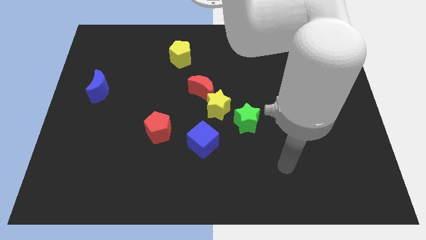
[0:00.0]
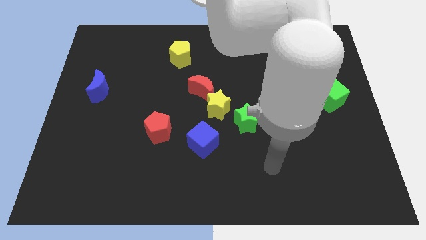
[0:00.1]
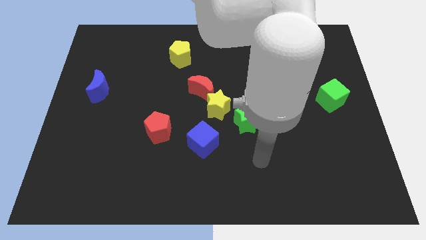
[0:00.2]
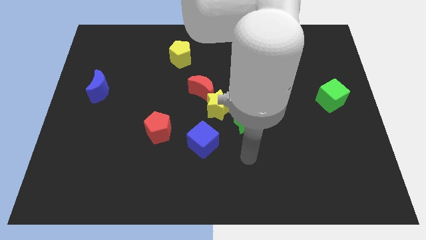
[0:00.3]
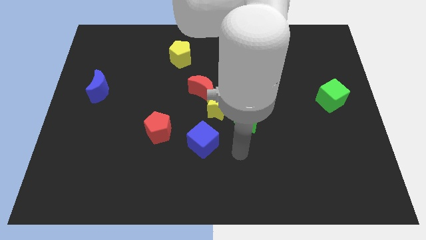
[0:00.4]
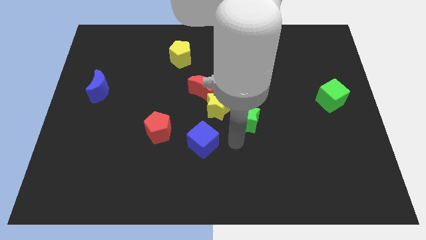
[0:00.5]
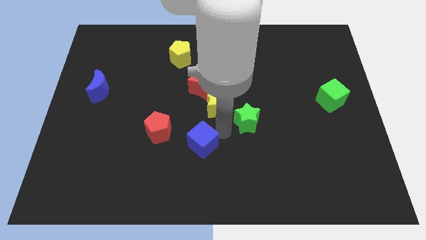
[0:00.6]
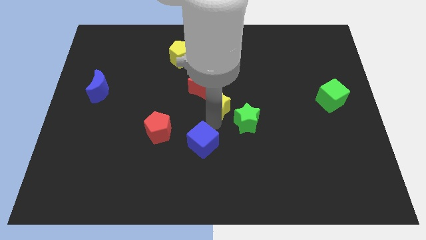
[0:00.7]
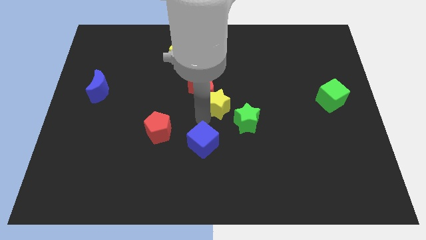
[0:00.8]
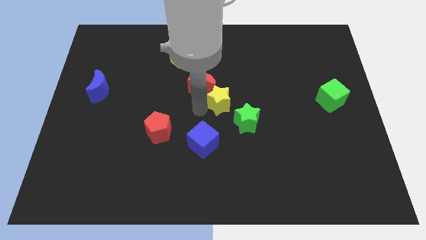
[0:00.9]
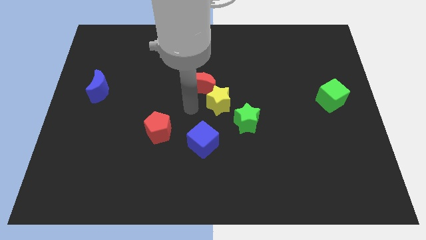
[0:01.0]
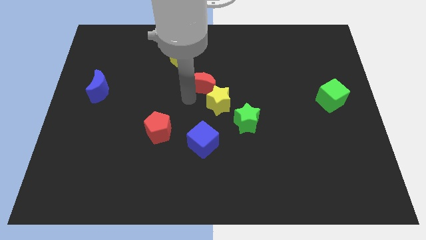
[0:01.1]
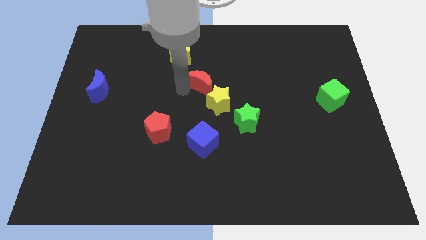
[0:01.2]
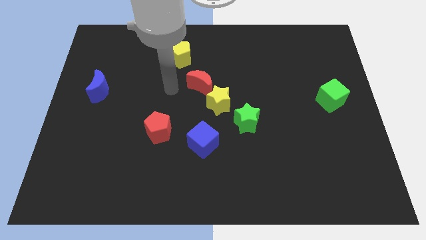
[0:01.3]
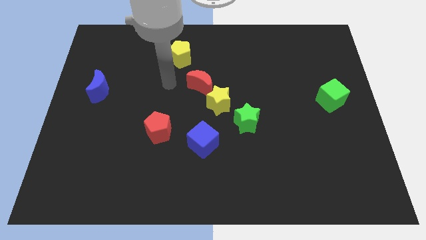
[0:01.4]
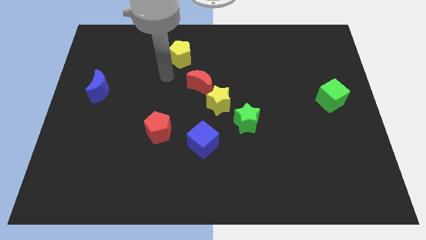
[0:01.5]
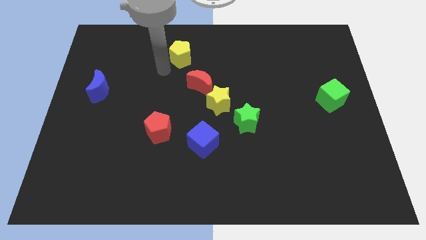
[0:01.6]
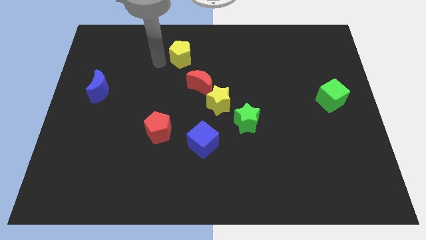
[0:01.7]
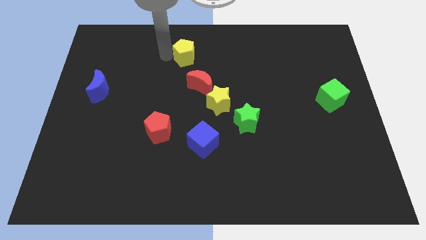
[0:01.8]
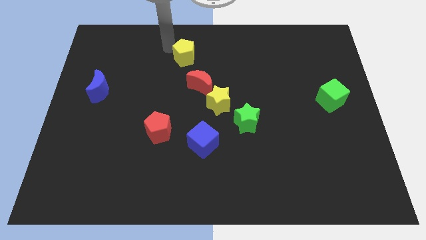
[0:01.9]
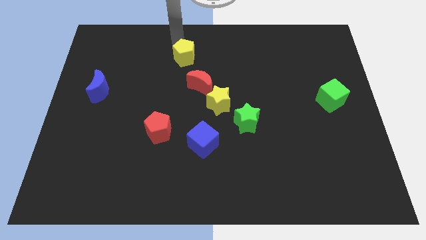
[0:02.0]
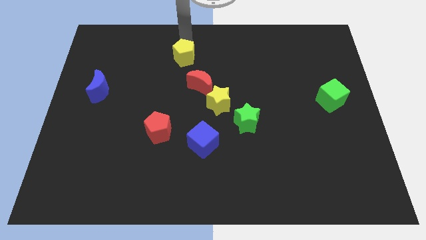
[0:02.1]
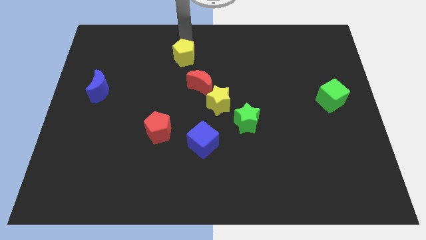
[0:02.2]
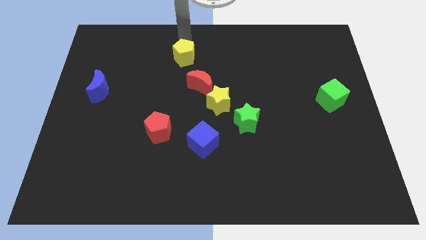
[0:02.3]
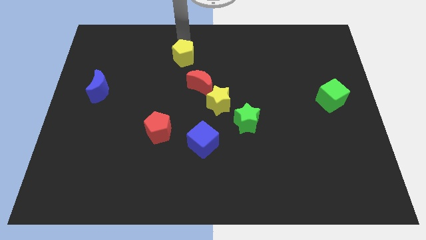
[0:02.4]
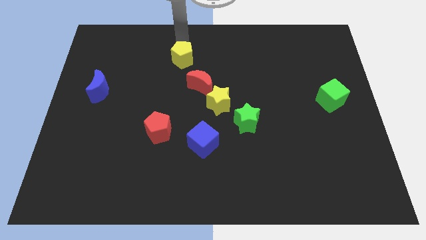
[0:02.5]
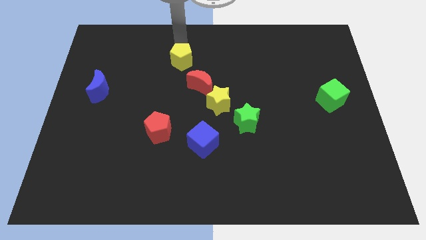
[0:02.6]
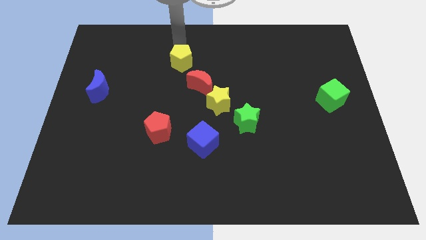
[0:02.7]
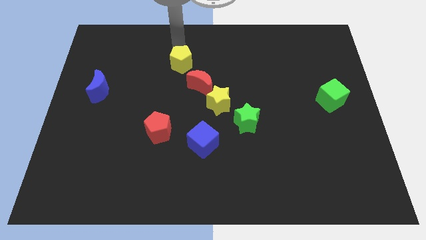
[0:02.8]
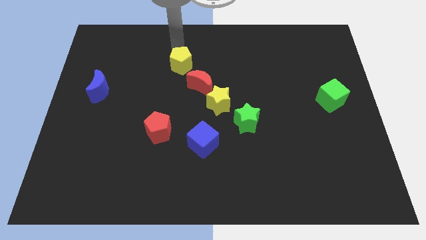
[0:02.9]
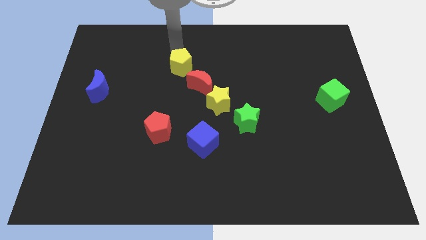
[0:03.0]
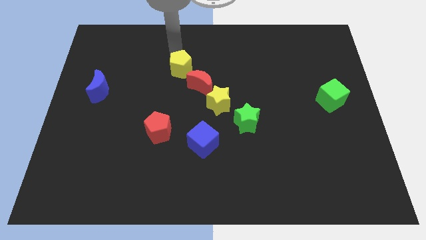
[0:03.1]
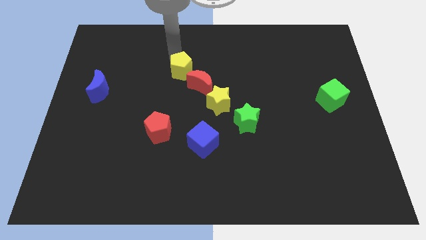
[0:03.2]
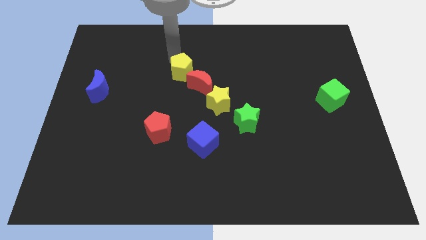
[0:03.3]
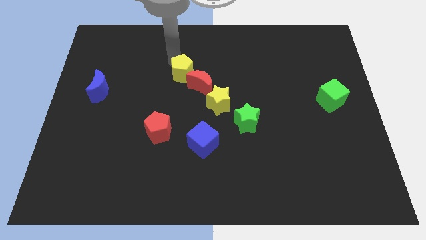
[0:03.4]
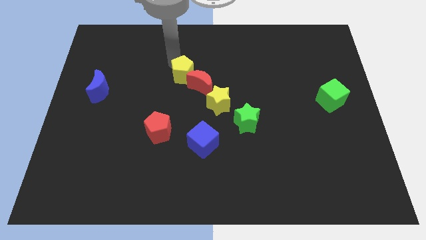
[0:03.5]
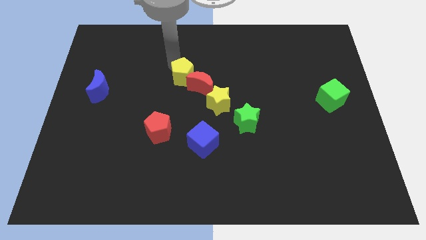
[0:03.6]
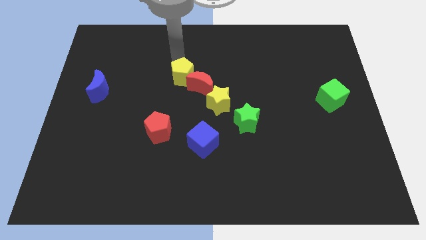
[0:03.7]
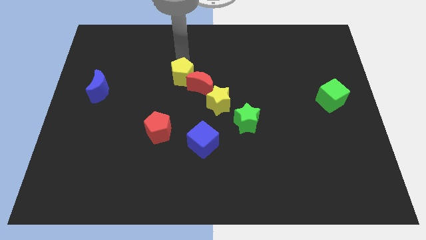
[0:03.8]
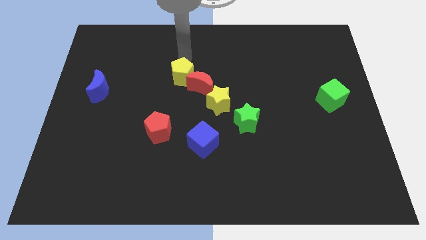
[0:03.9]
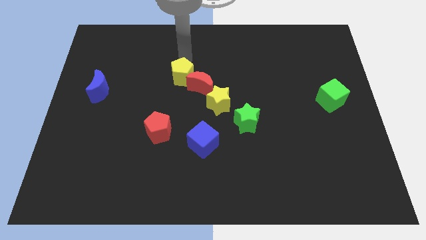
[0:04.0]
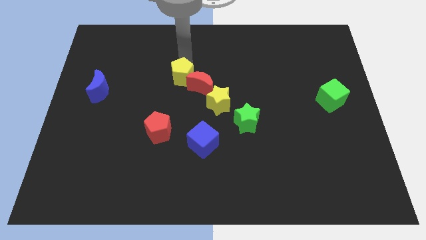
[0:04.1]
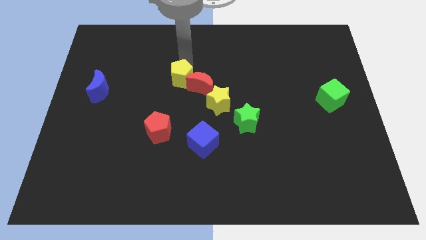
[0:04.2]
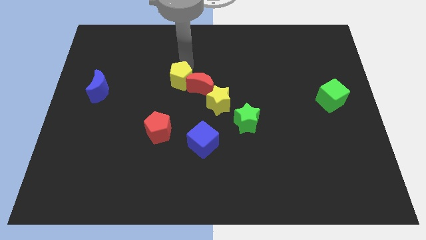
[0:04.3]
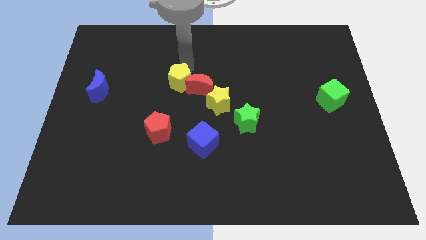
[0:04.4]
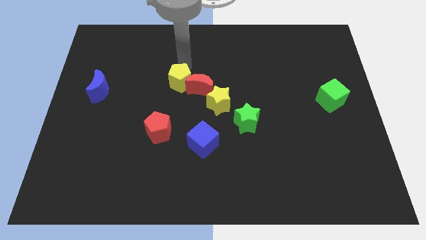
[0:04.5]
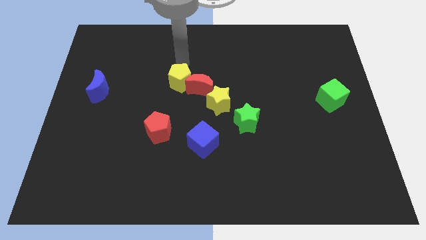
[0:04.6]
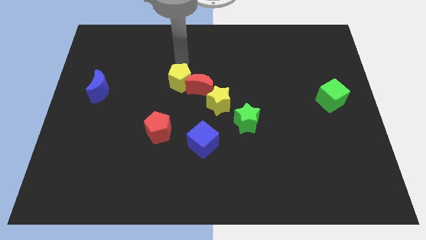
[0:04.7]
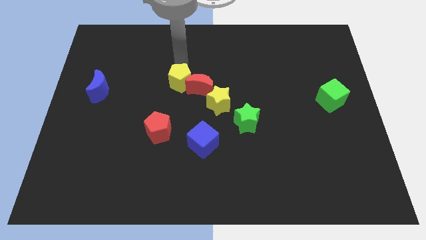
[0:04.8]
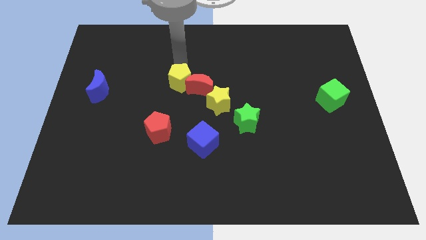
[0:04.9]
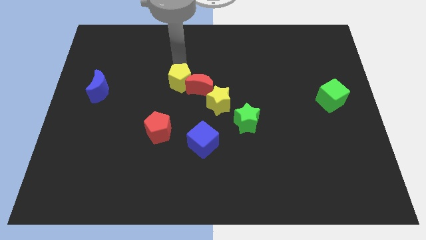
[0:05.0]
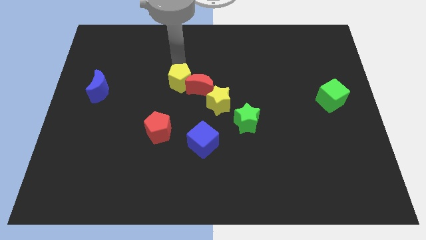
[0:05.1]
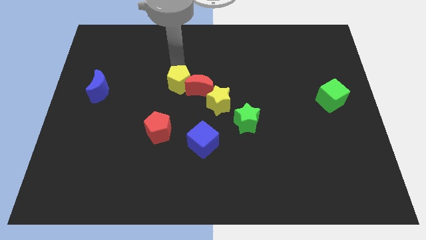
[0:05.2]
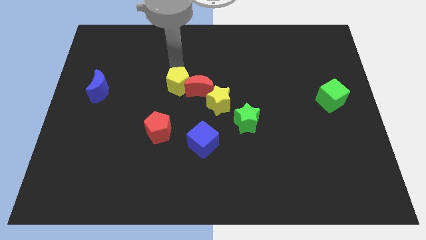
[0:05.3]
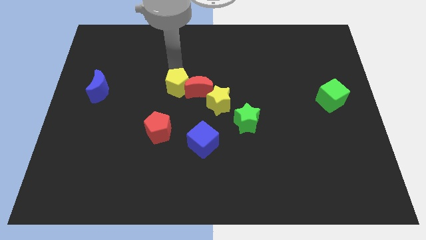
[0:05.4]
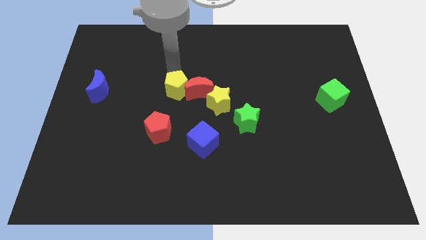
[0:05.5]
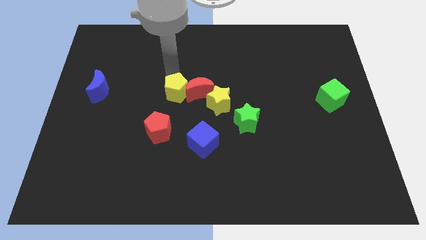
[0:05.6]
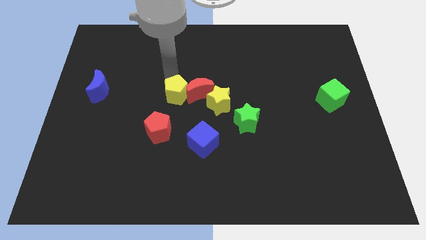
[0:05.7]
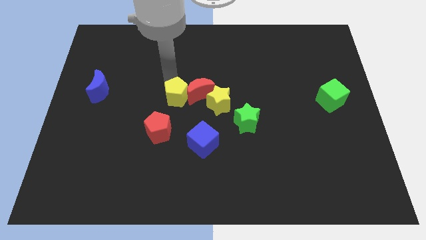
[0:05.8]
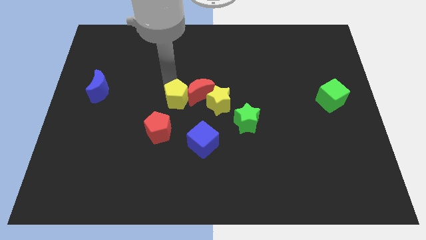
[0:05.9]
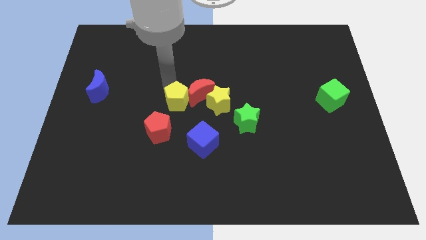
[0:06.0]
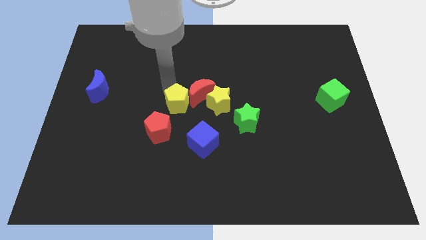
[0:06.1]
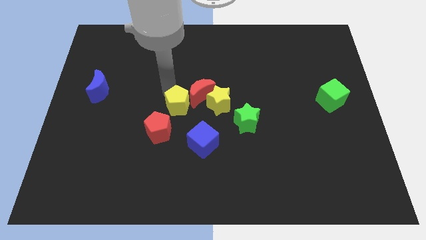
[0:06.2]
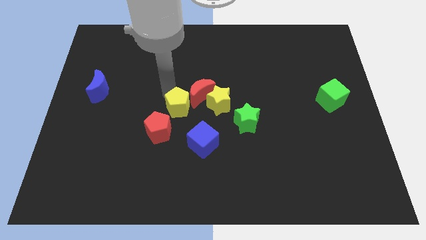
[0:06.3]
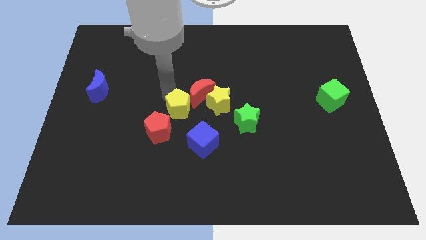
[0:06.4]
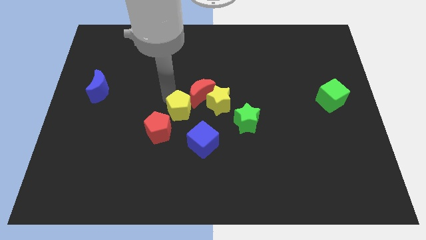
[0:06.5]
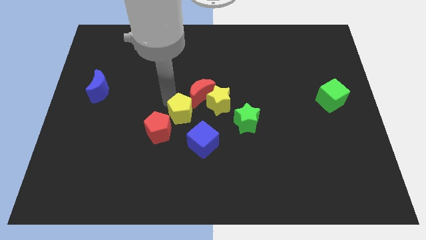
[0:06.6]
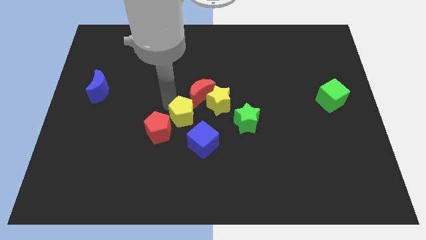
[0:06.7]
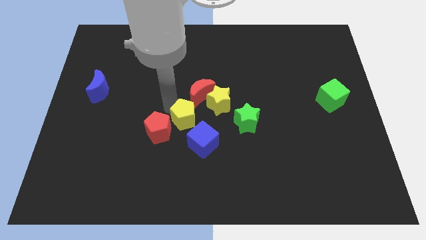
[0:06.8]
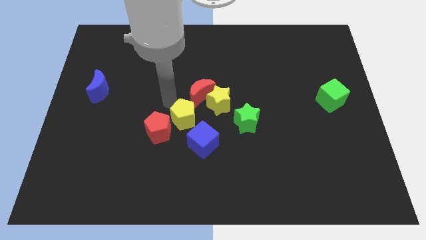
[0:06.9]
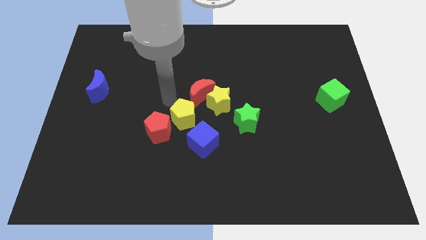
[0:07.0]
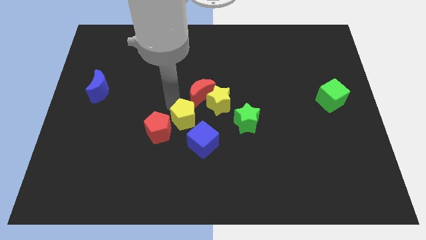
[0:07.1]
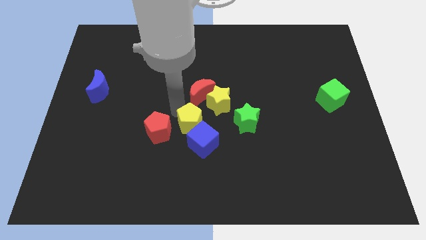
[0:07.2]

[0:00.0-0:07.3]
move the yellow pentagon close to the blue cube

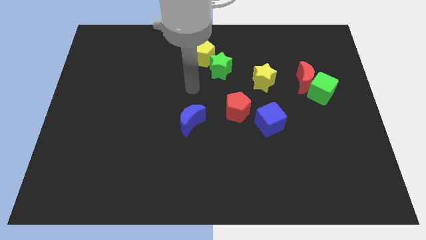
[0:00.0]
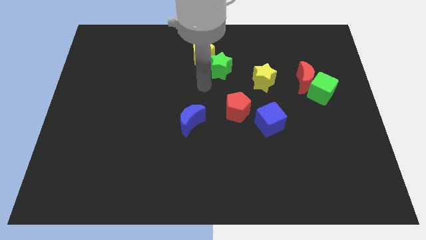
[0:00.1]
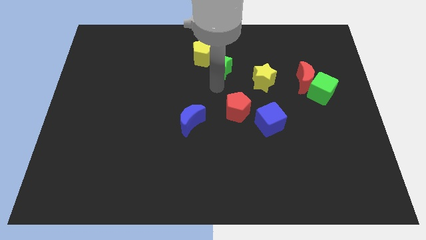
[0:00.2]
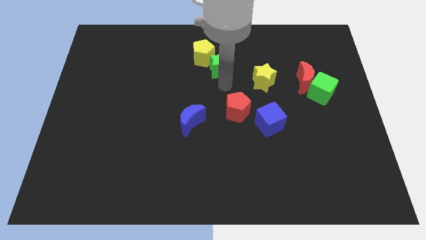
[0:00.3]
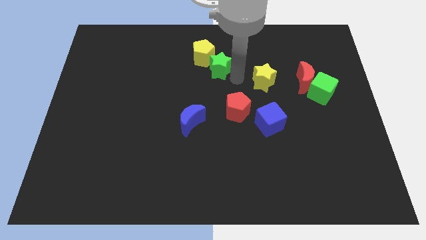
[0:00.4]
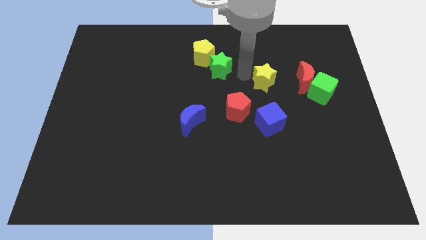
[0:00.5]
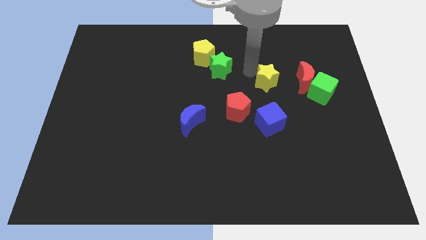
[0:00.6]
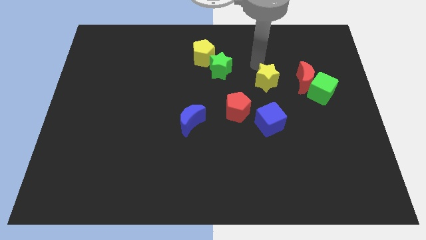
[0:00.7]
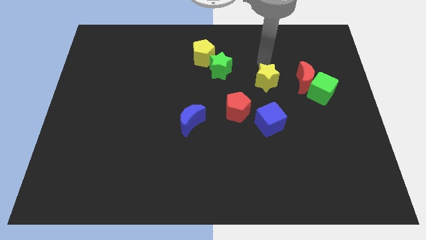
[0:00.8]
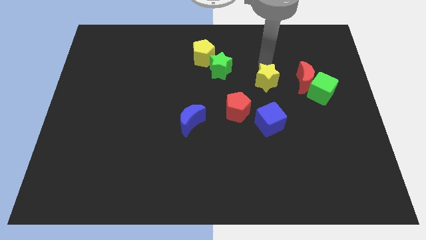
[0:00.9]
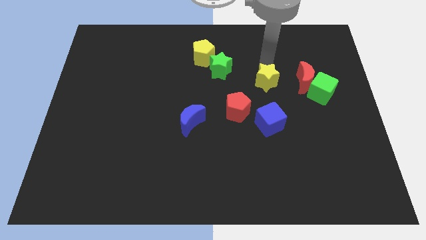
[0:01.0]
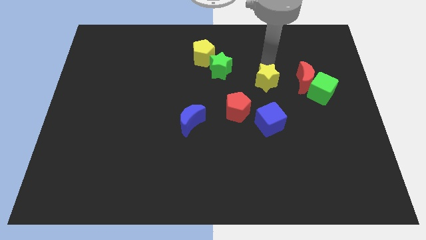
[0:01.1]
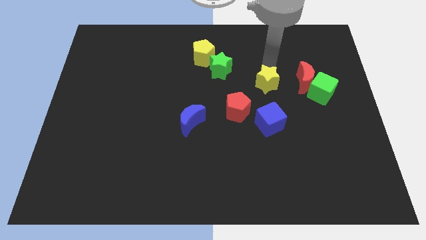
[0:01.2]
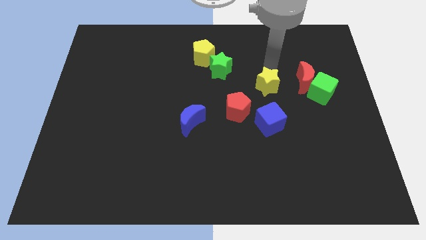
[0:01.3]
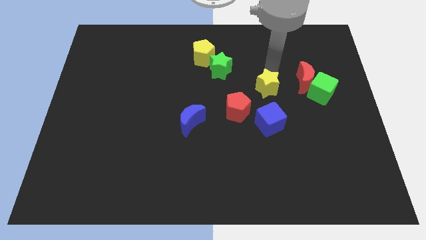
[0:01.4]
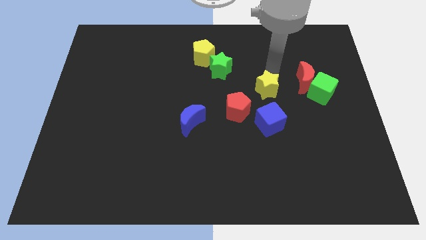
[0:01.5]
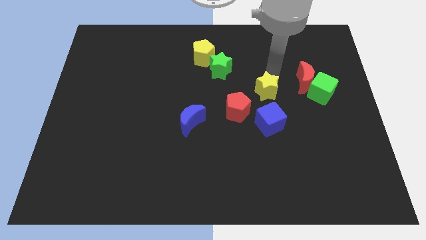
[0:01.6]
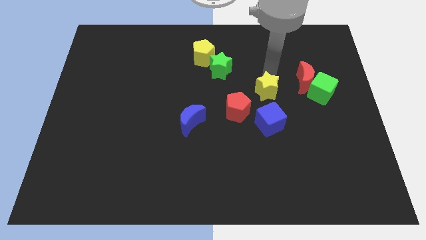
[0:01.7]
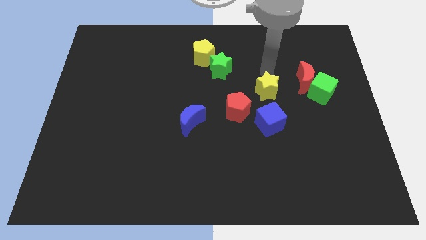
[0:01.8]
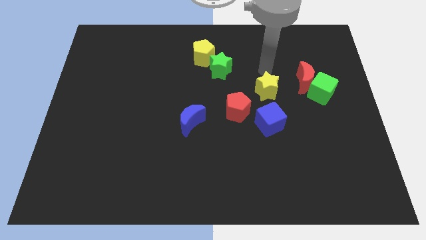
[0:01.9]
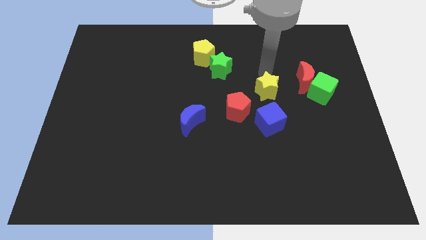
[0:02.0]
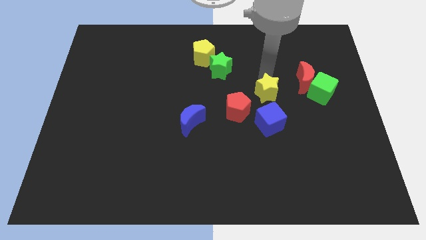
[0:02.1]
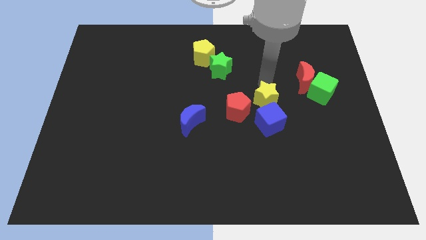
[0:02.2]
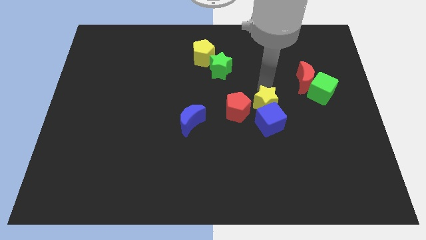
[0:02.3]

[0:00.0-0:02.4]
put the yellow star close to the blue cube
